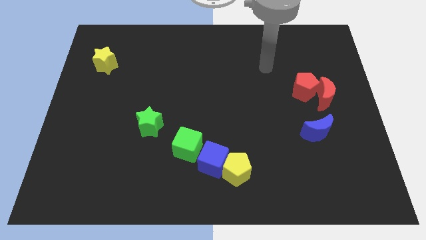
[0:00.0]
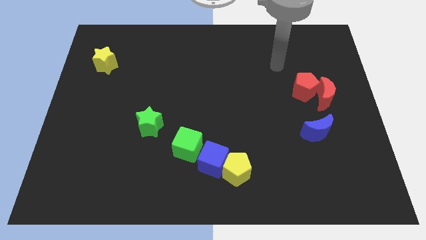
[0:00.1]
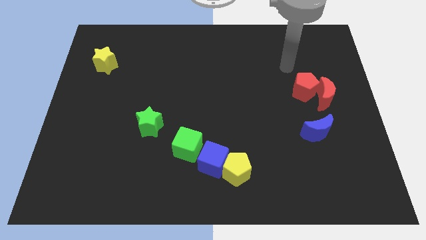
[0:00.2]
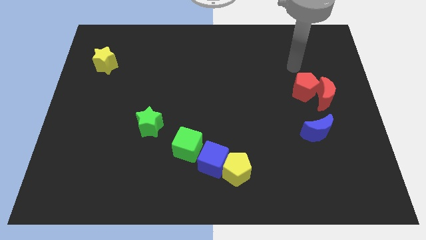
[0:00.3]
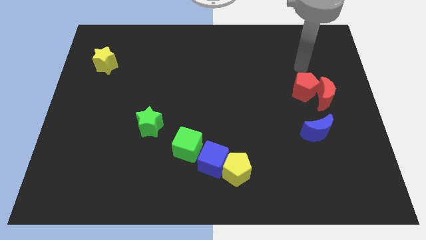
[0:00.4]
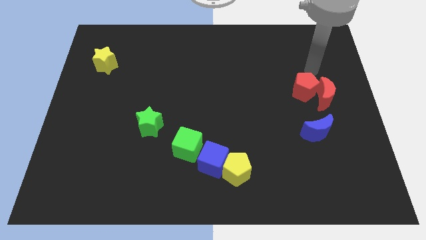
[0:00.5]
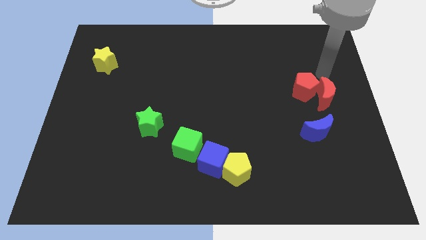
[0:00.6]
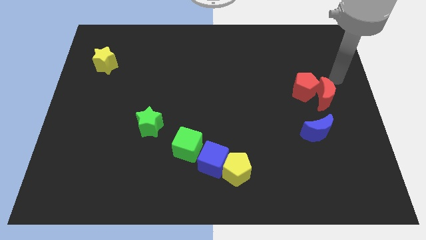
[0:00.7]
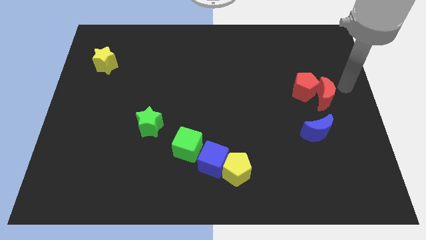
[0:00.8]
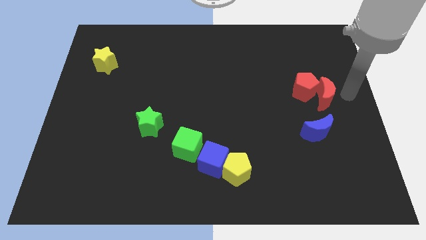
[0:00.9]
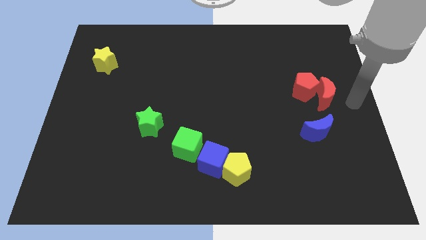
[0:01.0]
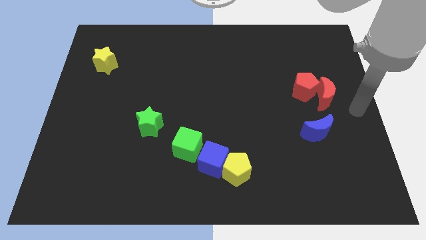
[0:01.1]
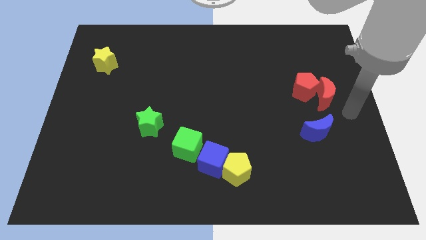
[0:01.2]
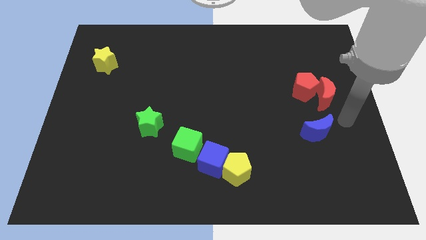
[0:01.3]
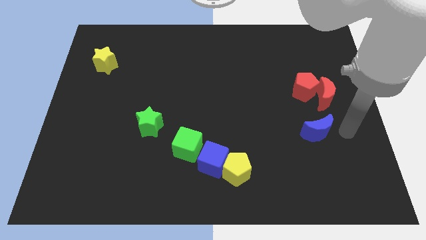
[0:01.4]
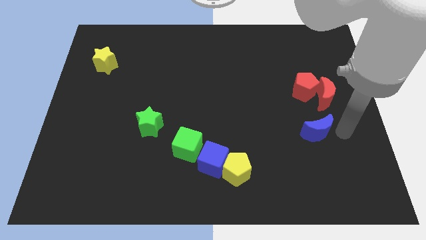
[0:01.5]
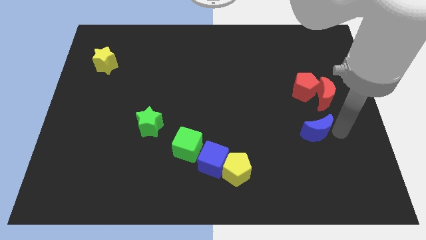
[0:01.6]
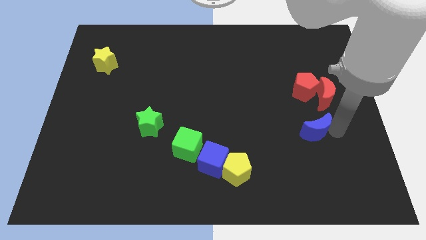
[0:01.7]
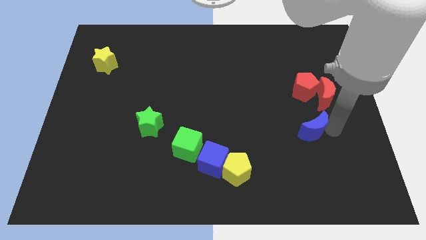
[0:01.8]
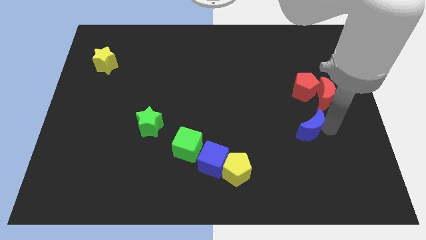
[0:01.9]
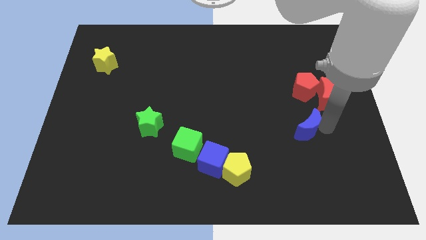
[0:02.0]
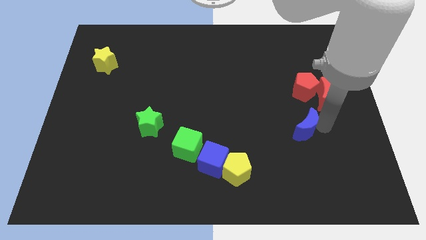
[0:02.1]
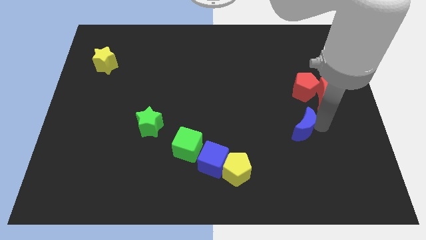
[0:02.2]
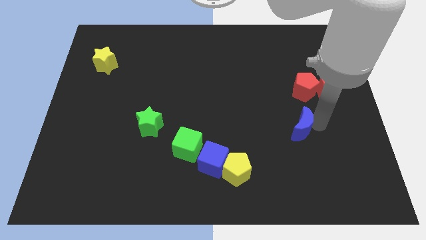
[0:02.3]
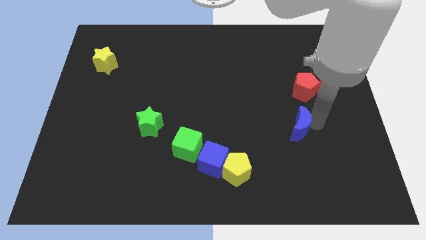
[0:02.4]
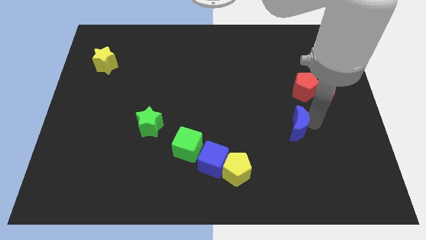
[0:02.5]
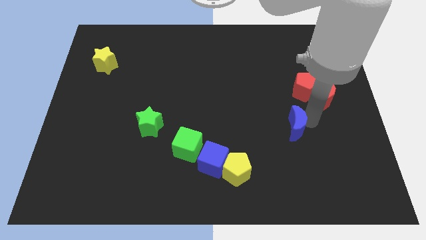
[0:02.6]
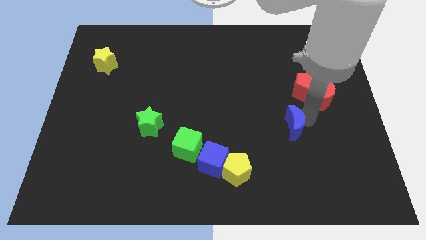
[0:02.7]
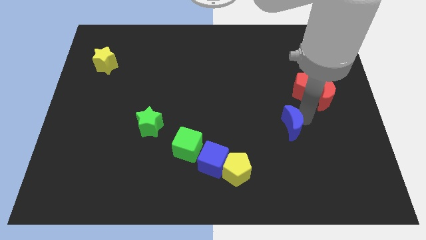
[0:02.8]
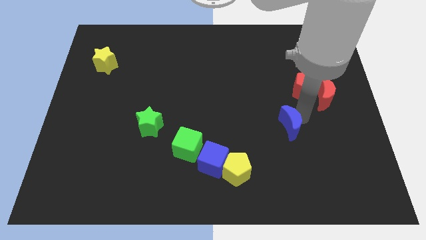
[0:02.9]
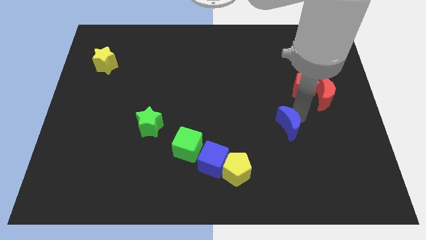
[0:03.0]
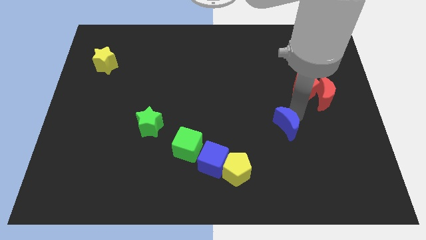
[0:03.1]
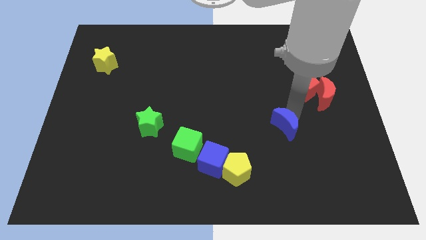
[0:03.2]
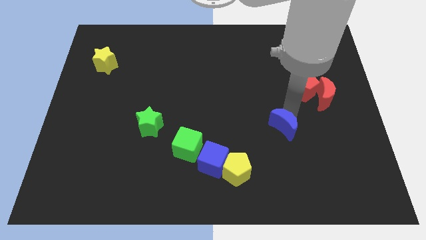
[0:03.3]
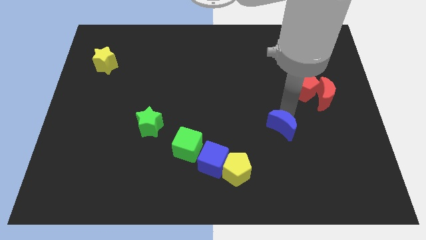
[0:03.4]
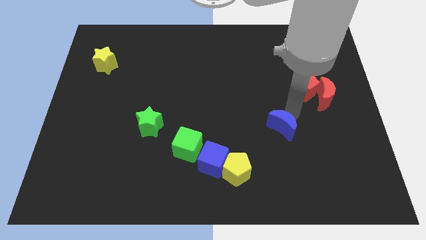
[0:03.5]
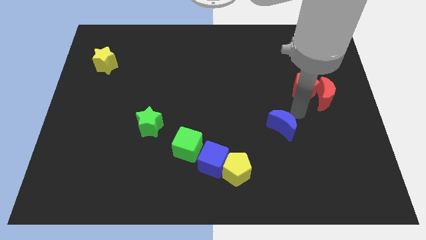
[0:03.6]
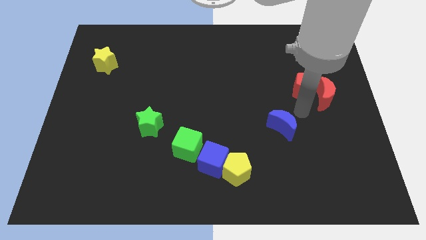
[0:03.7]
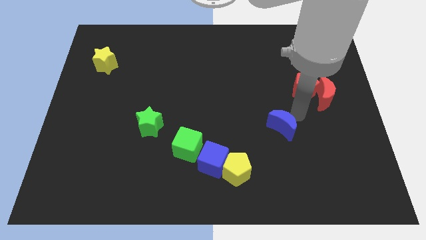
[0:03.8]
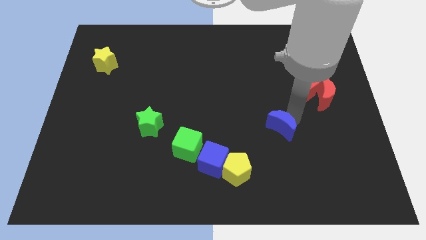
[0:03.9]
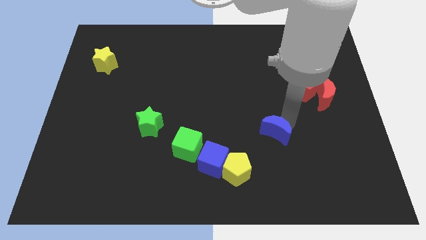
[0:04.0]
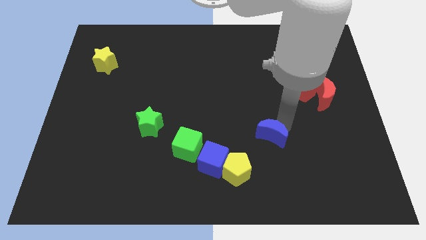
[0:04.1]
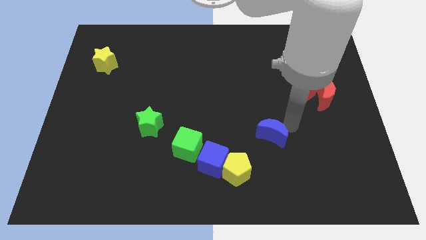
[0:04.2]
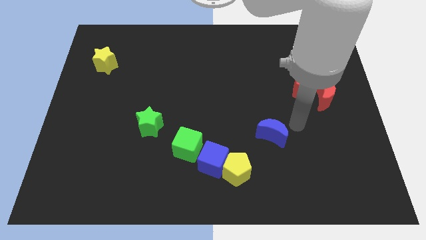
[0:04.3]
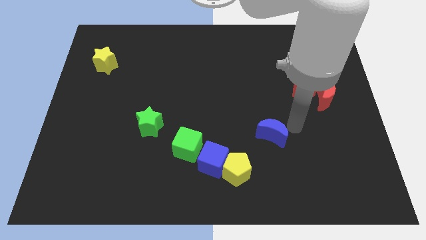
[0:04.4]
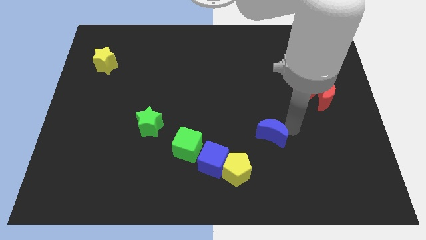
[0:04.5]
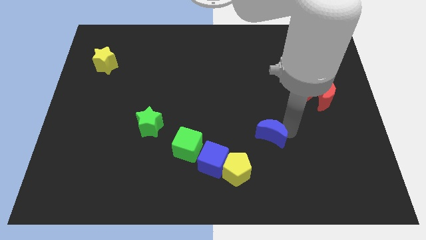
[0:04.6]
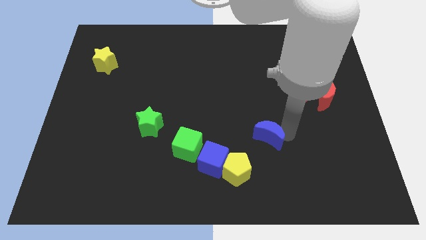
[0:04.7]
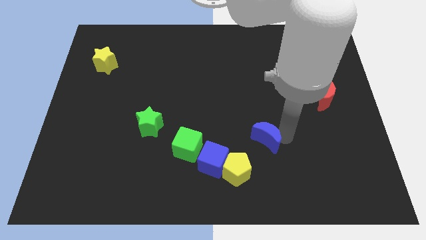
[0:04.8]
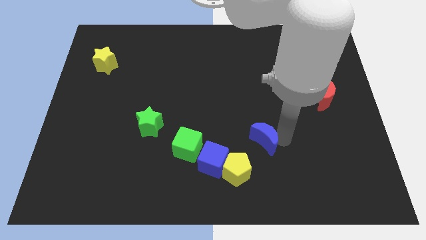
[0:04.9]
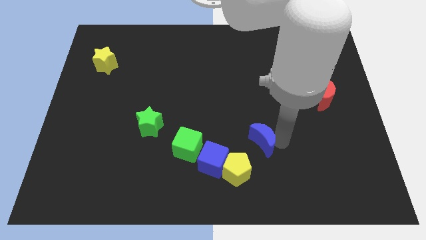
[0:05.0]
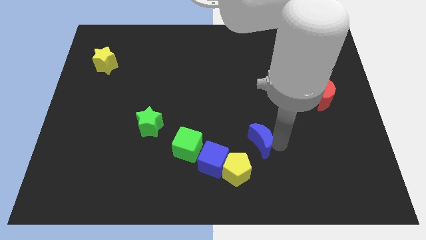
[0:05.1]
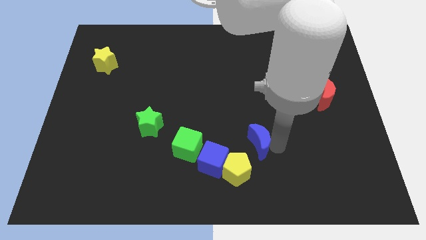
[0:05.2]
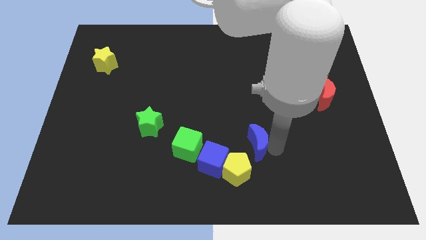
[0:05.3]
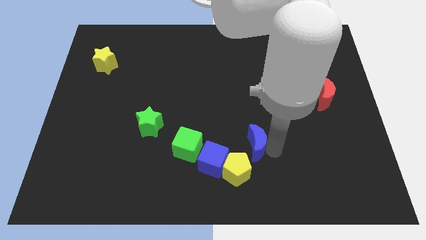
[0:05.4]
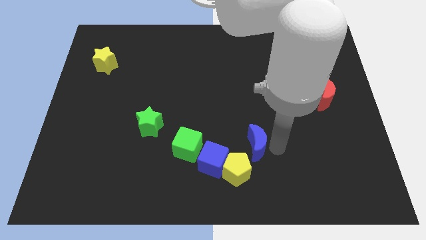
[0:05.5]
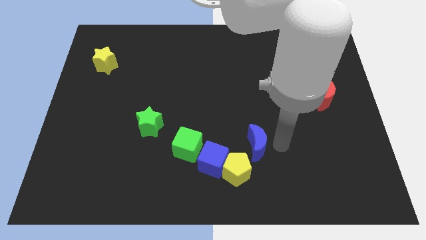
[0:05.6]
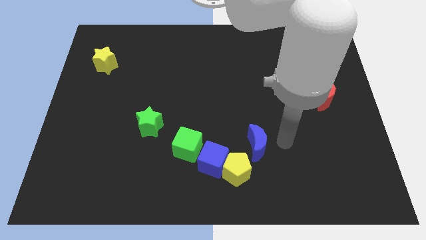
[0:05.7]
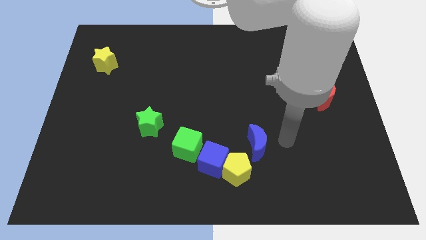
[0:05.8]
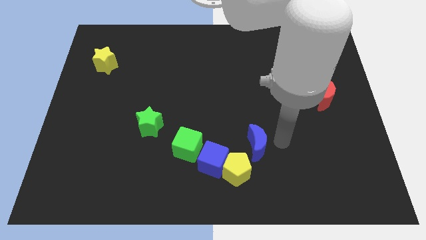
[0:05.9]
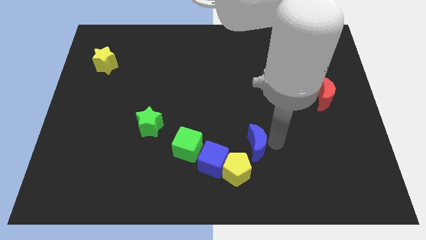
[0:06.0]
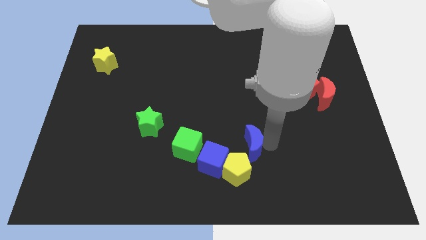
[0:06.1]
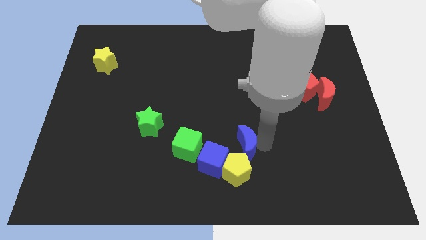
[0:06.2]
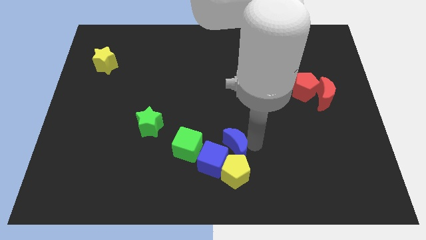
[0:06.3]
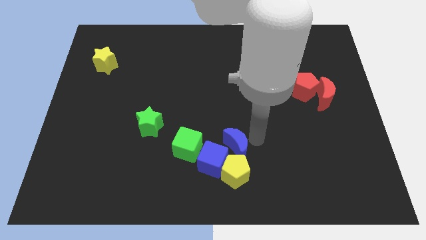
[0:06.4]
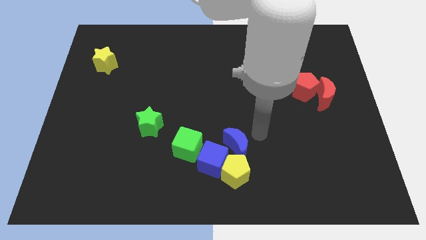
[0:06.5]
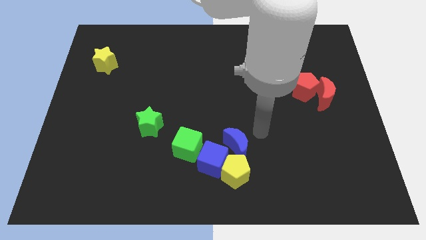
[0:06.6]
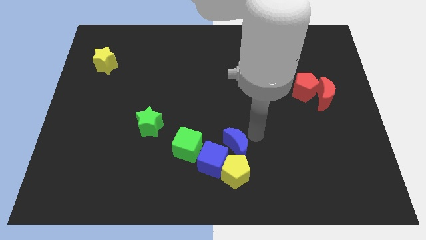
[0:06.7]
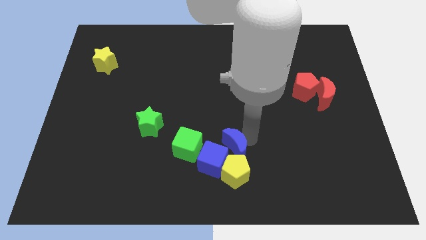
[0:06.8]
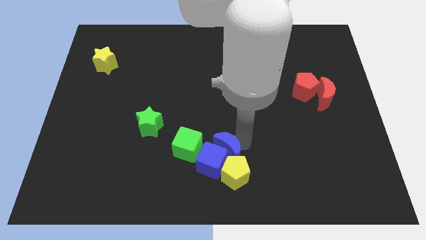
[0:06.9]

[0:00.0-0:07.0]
slide the blue moon to the blue cube

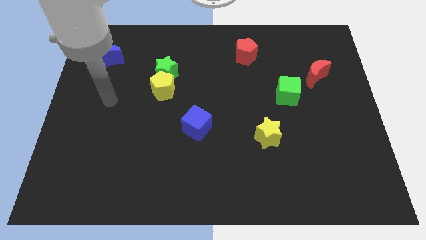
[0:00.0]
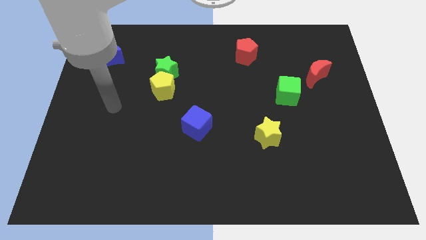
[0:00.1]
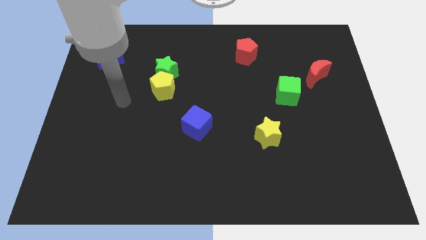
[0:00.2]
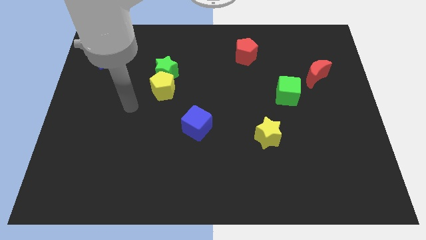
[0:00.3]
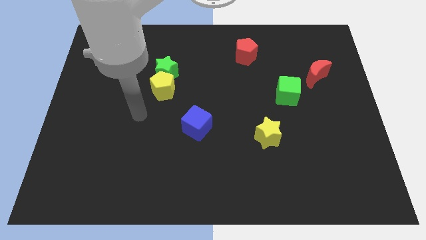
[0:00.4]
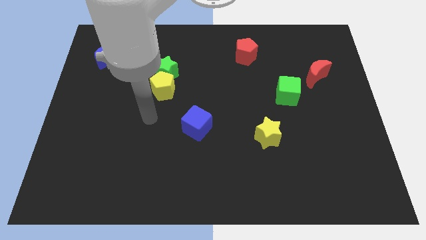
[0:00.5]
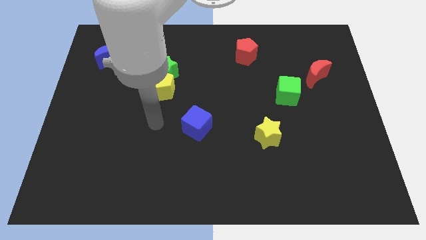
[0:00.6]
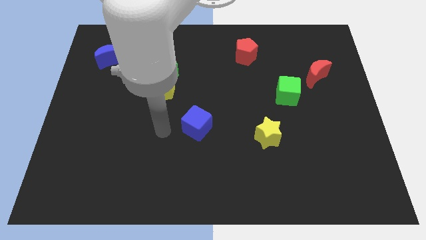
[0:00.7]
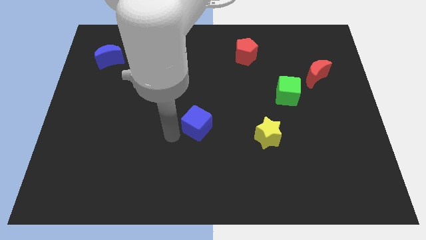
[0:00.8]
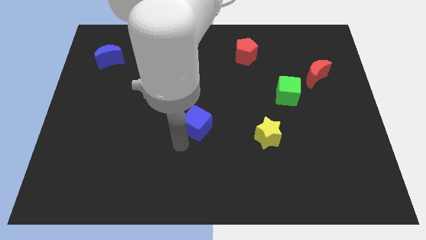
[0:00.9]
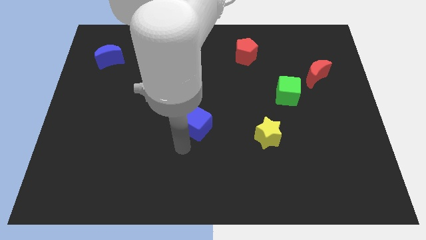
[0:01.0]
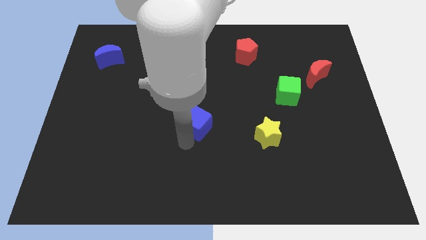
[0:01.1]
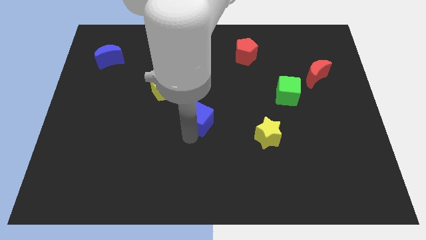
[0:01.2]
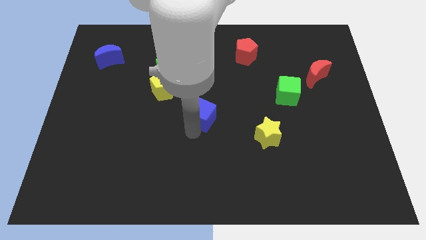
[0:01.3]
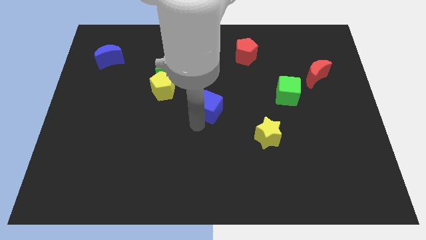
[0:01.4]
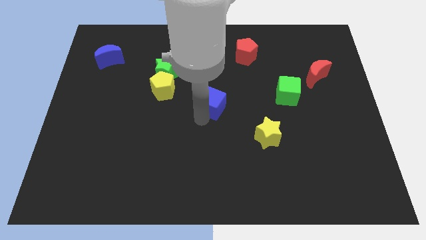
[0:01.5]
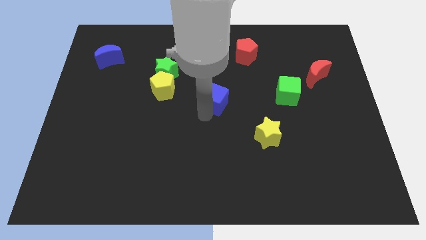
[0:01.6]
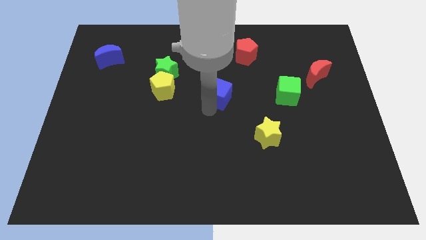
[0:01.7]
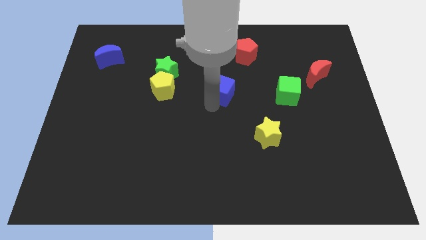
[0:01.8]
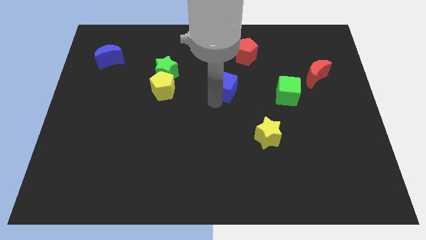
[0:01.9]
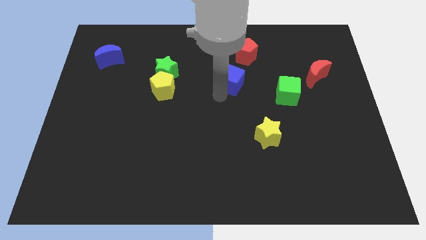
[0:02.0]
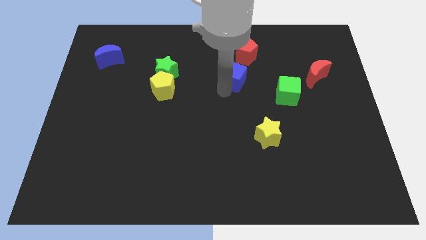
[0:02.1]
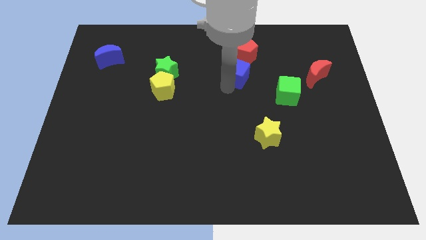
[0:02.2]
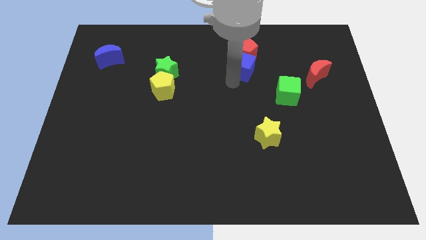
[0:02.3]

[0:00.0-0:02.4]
put the blue cube next to the red pentagon
